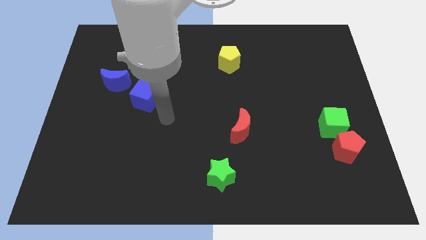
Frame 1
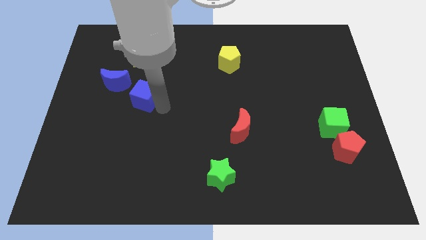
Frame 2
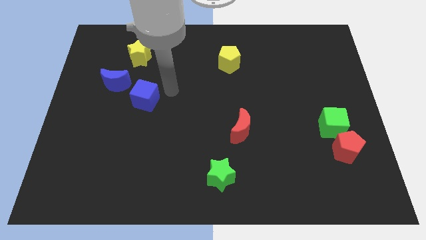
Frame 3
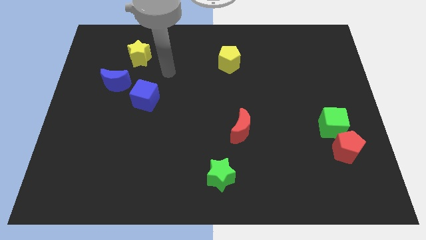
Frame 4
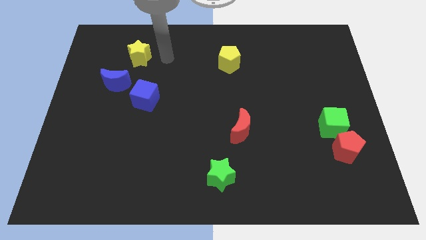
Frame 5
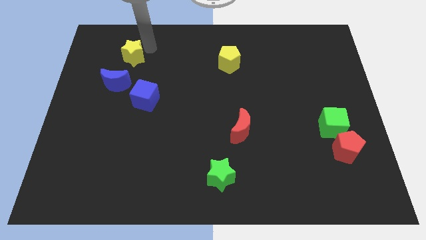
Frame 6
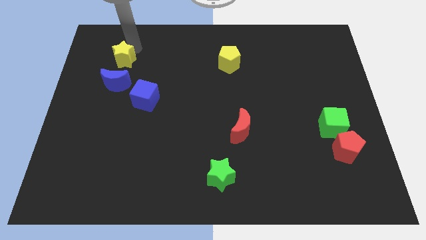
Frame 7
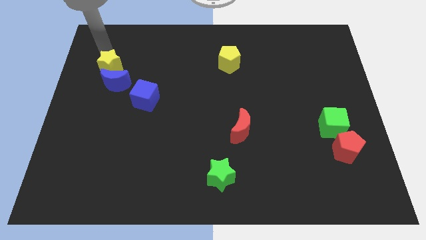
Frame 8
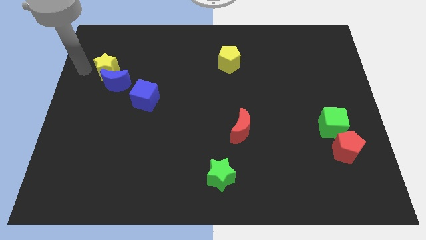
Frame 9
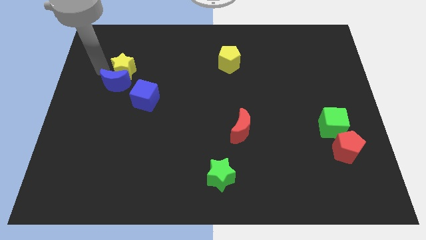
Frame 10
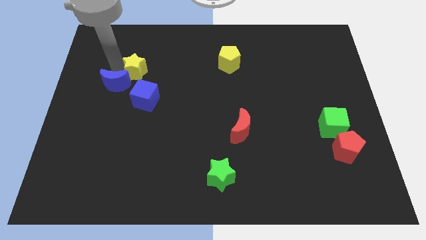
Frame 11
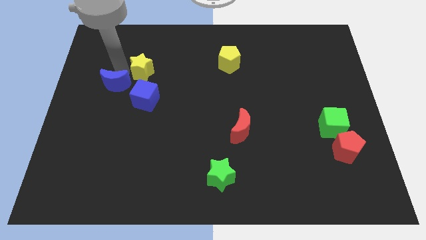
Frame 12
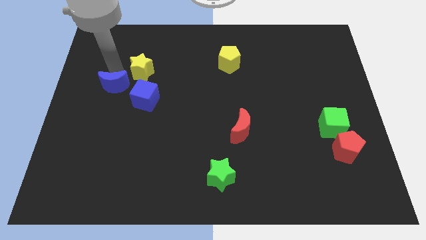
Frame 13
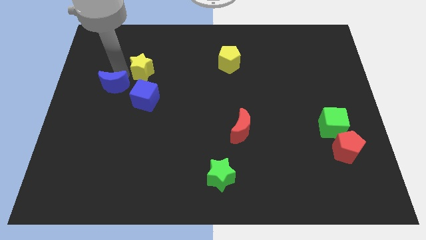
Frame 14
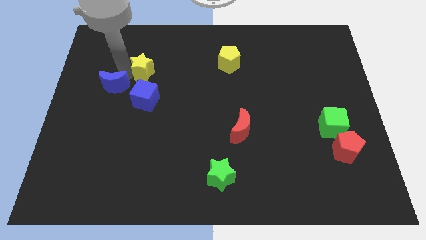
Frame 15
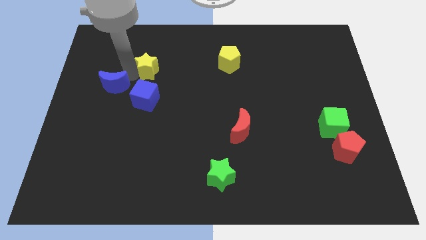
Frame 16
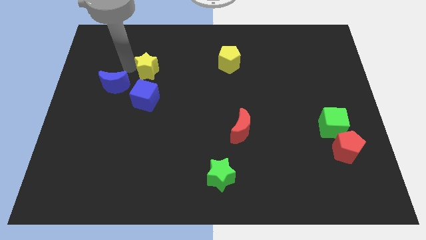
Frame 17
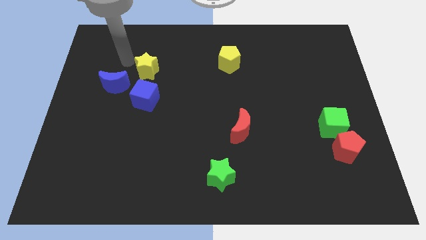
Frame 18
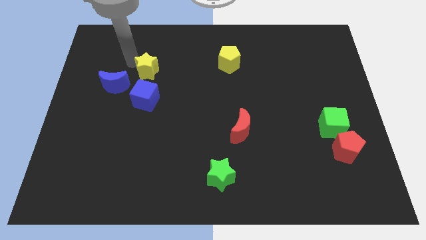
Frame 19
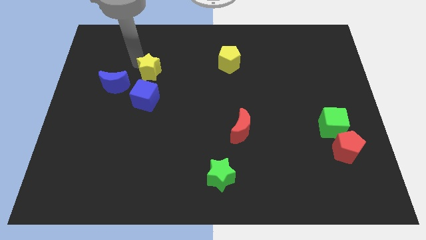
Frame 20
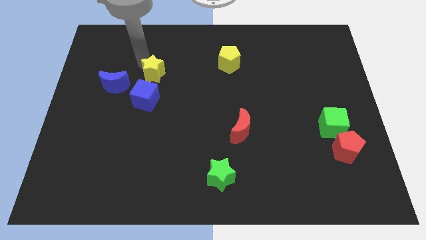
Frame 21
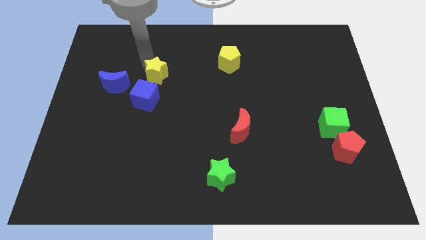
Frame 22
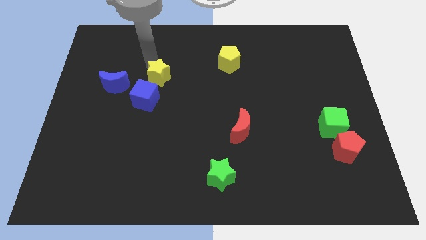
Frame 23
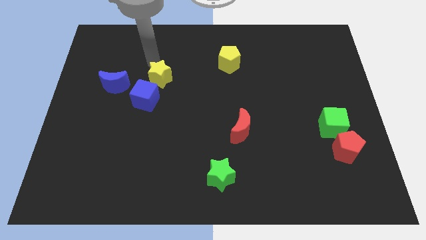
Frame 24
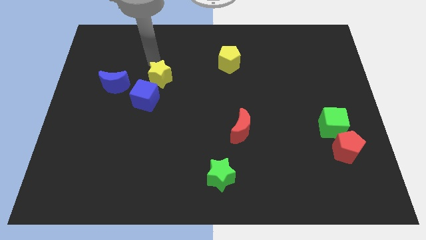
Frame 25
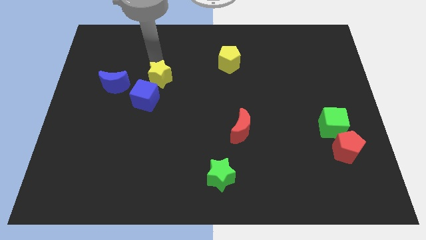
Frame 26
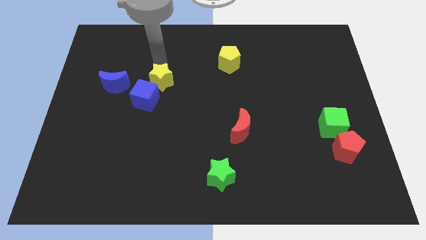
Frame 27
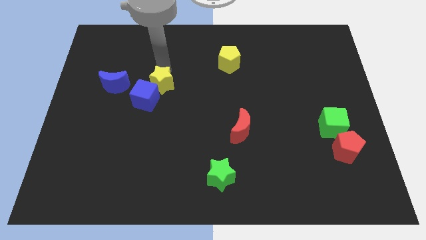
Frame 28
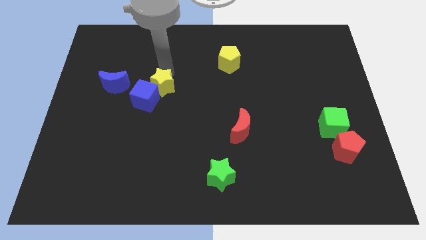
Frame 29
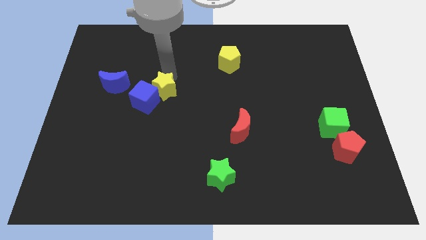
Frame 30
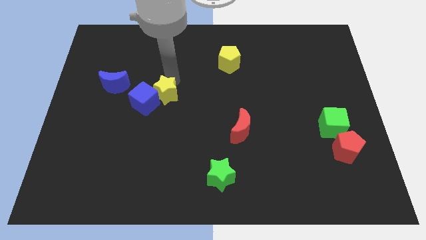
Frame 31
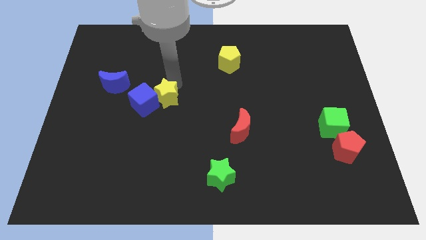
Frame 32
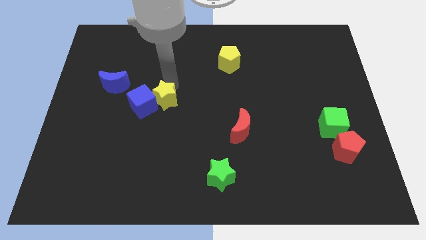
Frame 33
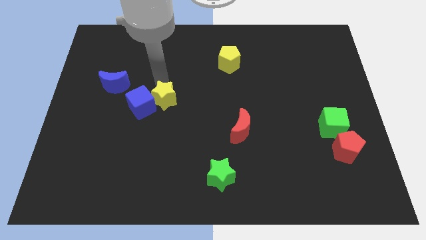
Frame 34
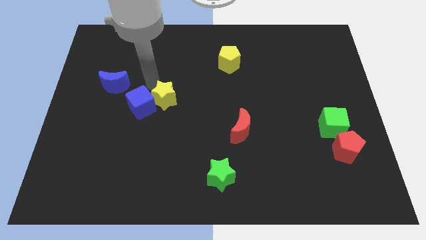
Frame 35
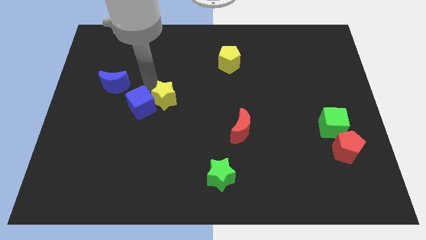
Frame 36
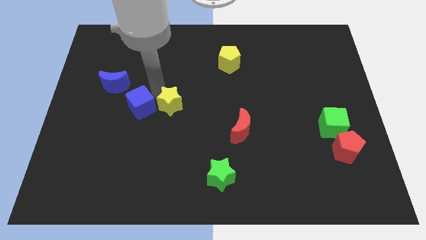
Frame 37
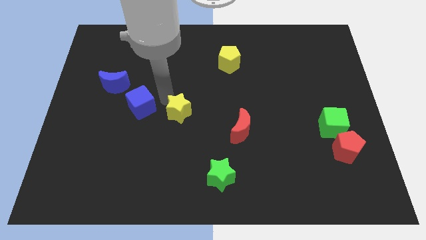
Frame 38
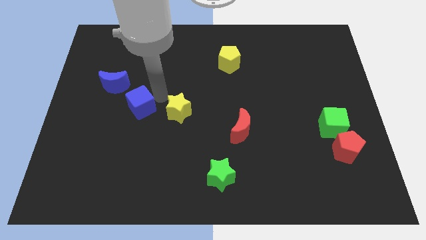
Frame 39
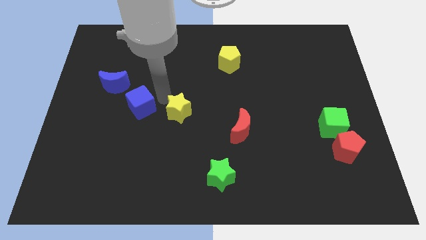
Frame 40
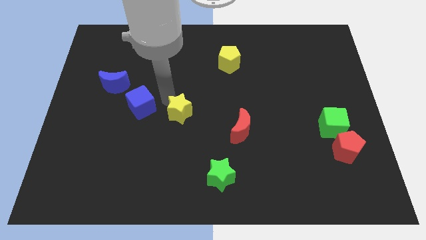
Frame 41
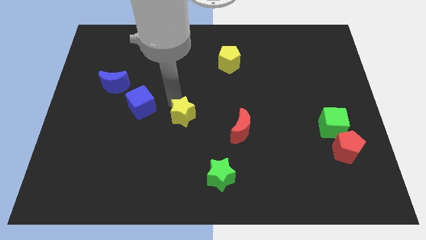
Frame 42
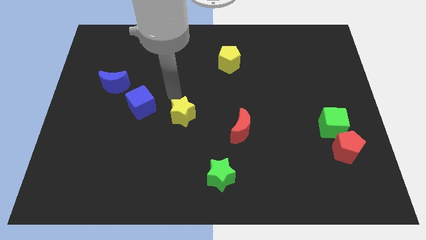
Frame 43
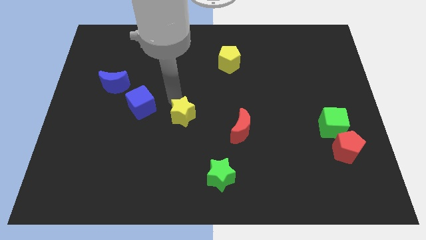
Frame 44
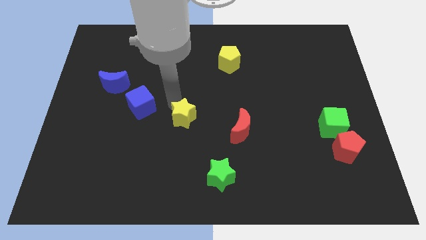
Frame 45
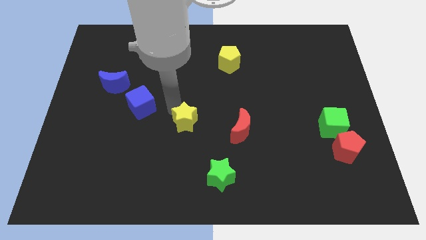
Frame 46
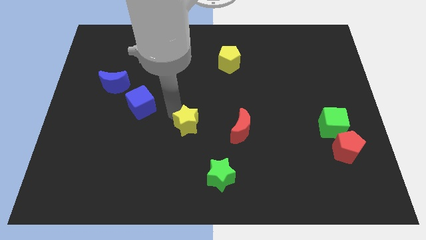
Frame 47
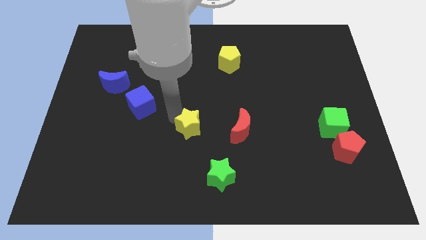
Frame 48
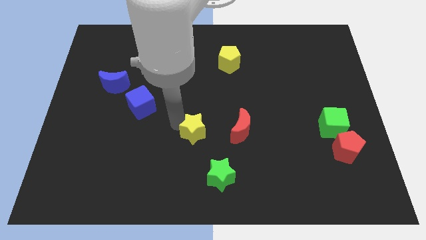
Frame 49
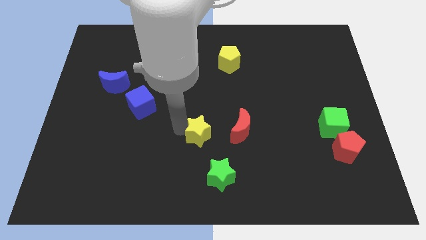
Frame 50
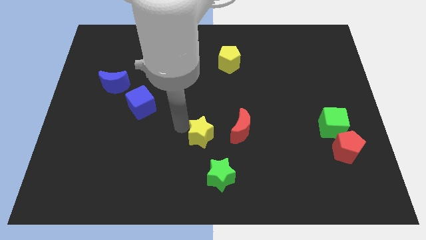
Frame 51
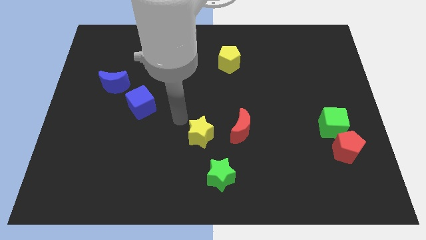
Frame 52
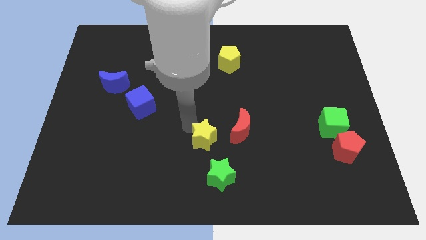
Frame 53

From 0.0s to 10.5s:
slide the yellow star diagonally down and to the left of the red moon

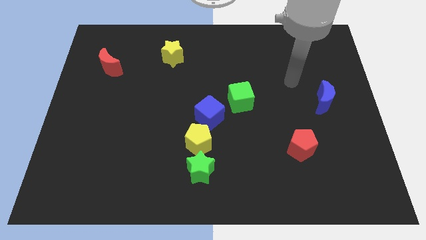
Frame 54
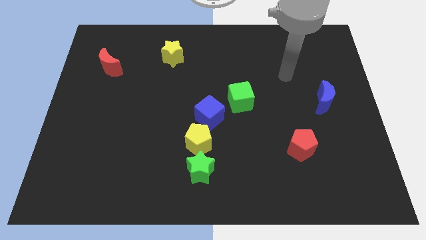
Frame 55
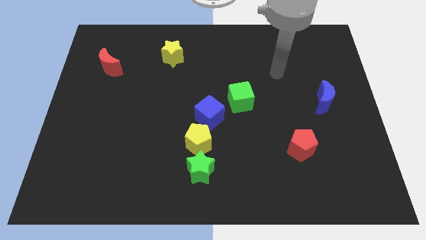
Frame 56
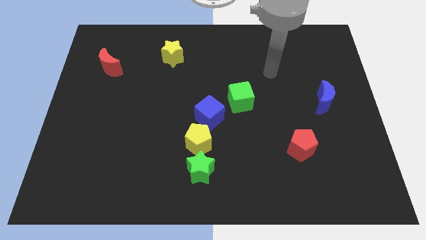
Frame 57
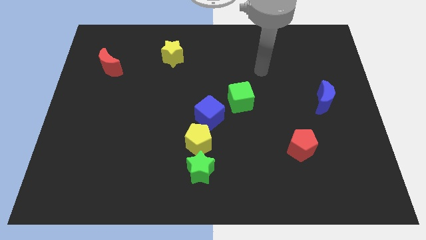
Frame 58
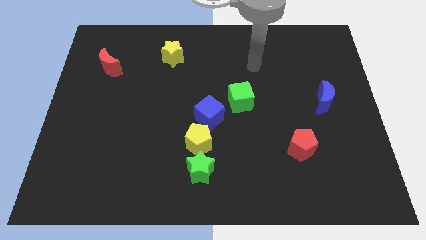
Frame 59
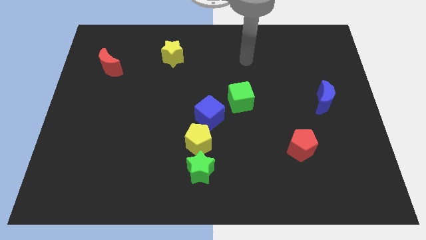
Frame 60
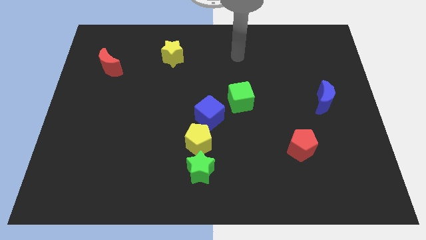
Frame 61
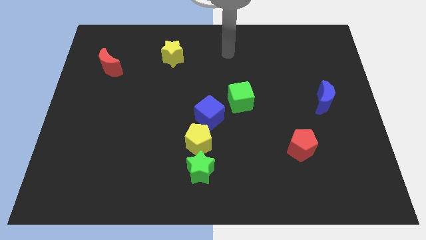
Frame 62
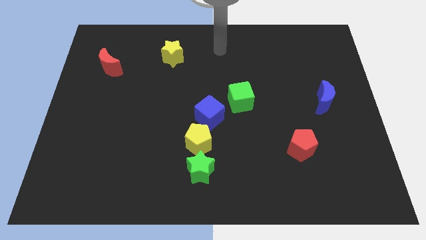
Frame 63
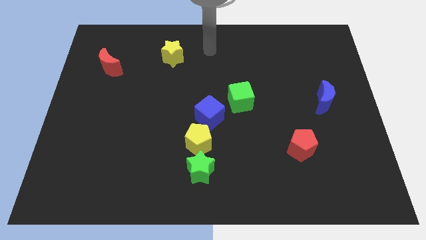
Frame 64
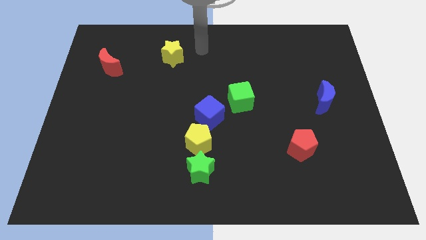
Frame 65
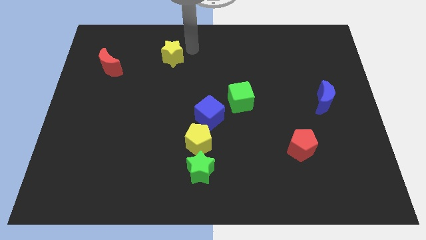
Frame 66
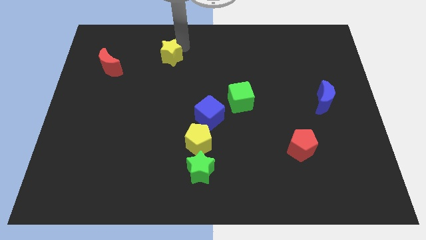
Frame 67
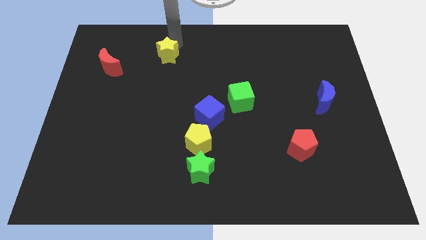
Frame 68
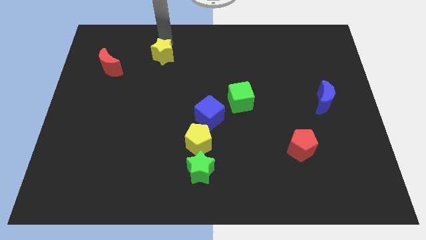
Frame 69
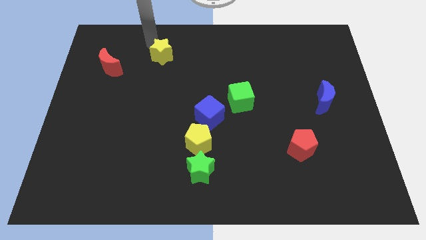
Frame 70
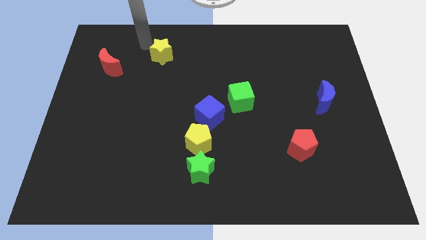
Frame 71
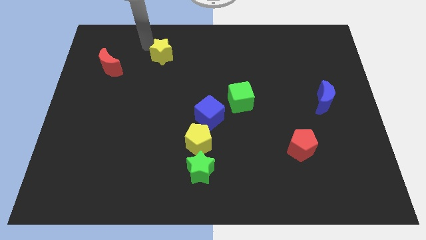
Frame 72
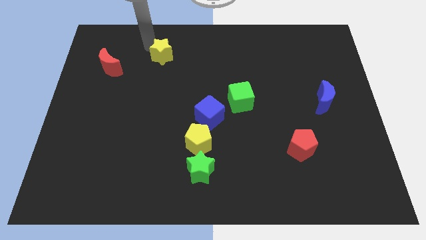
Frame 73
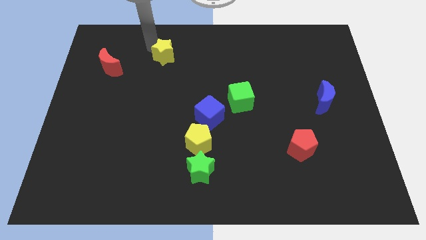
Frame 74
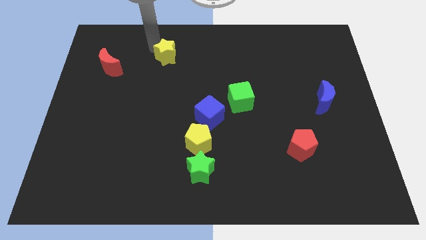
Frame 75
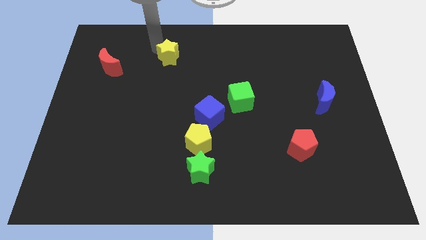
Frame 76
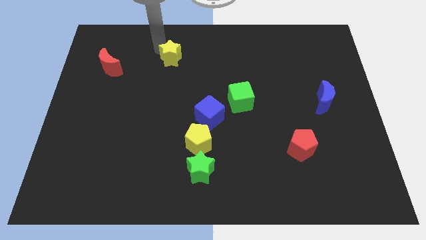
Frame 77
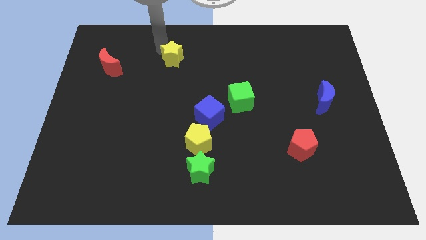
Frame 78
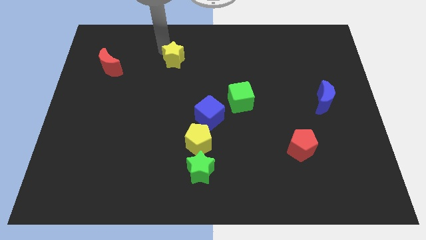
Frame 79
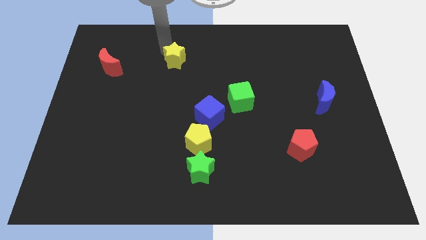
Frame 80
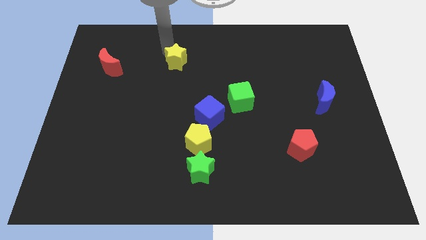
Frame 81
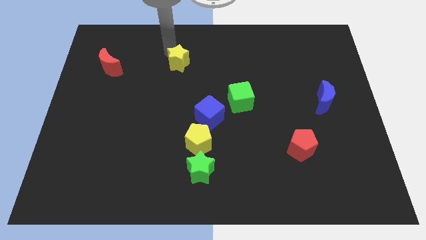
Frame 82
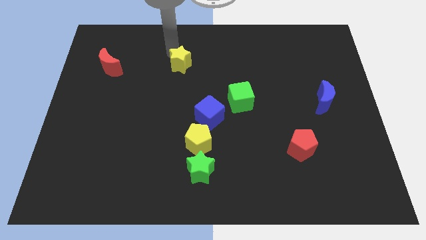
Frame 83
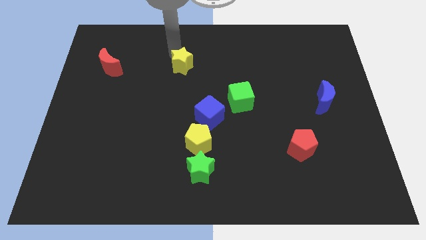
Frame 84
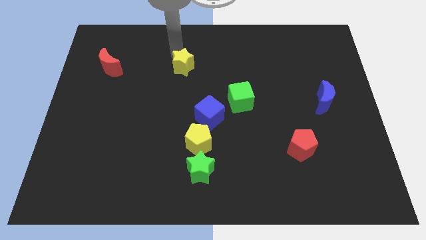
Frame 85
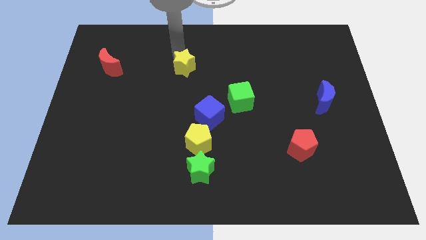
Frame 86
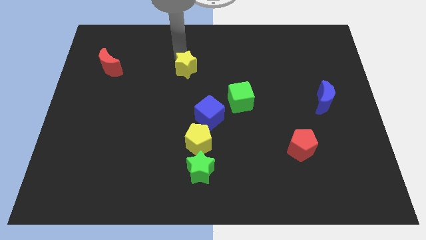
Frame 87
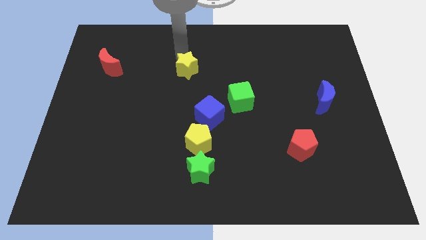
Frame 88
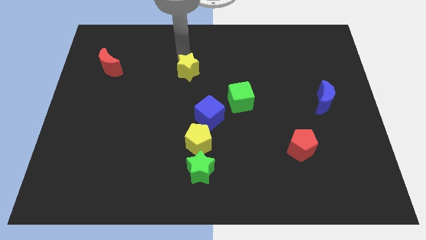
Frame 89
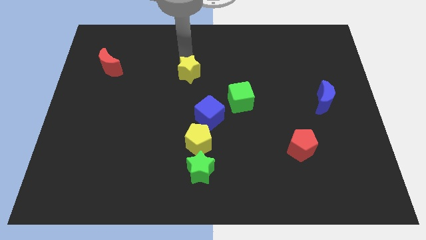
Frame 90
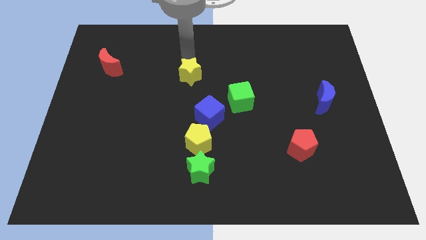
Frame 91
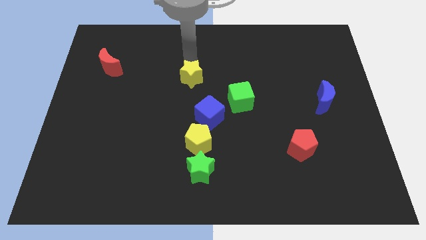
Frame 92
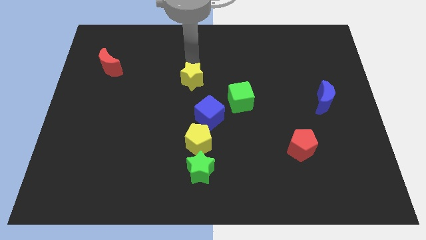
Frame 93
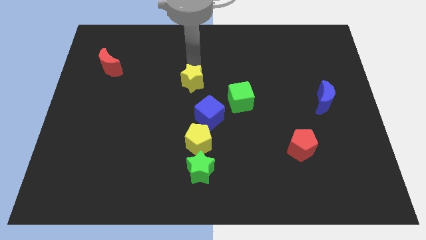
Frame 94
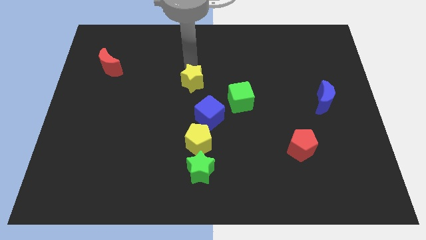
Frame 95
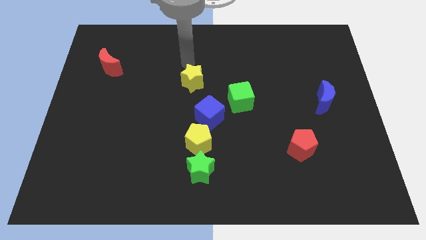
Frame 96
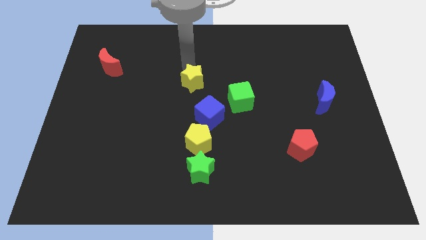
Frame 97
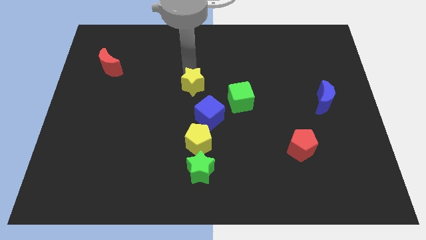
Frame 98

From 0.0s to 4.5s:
move the yellow star to the left side of the green cube
